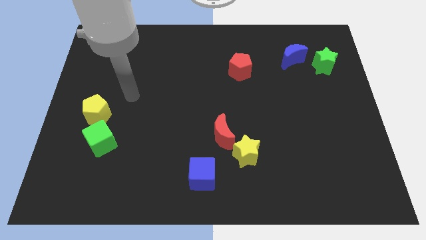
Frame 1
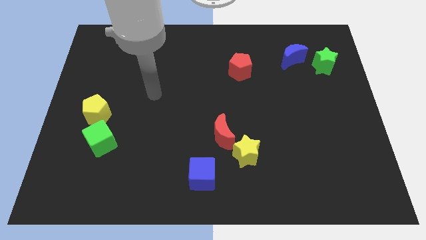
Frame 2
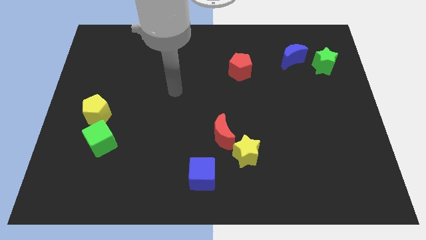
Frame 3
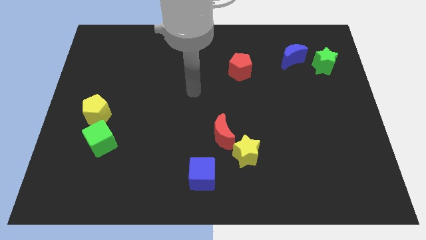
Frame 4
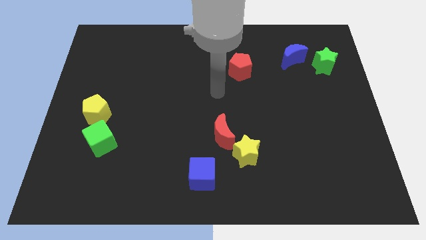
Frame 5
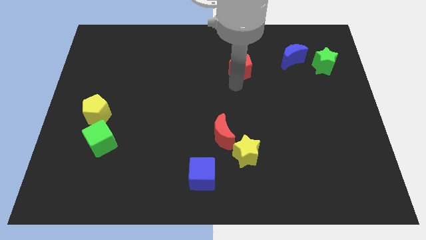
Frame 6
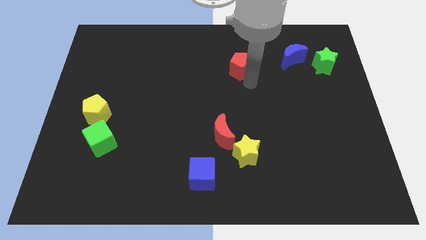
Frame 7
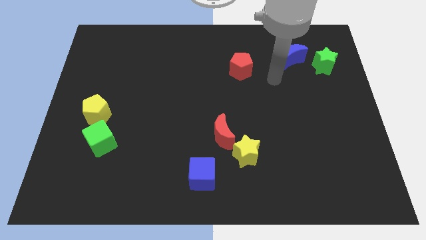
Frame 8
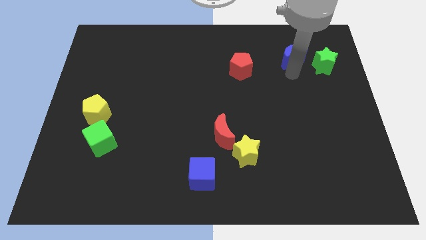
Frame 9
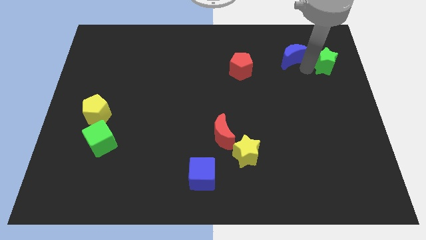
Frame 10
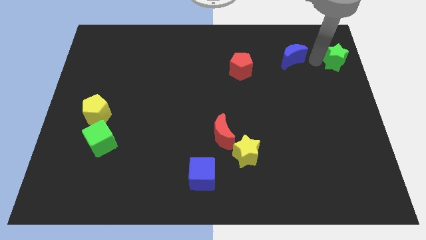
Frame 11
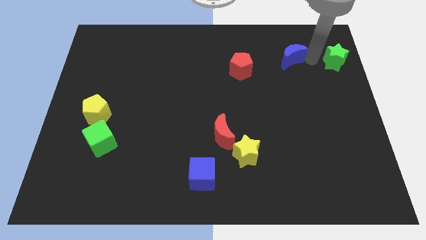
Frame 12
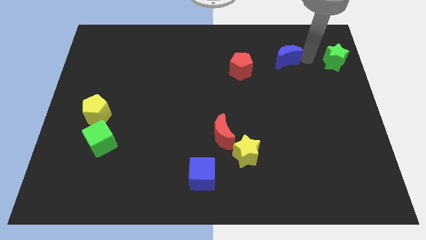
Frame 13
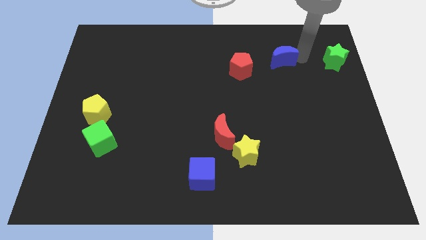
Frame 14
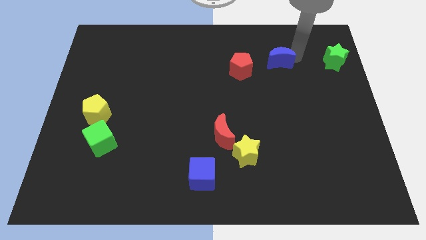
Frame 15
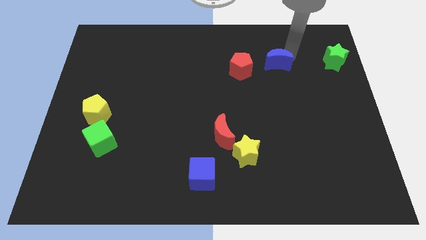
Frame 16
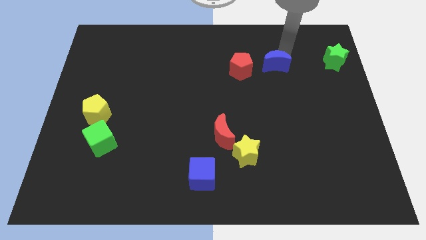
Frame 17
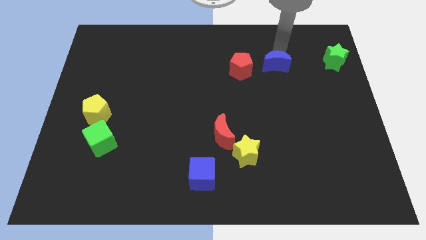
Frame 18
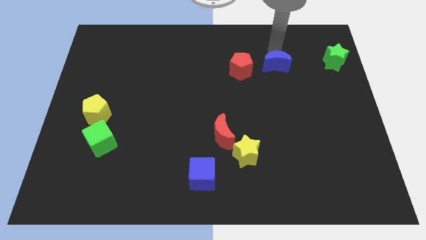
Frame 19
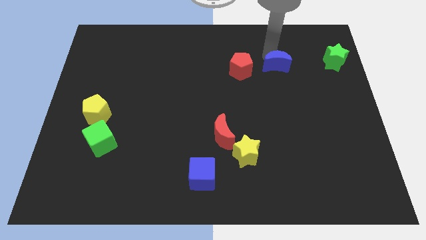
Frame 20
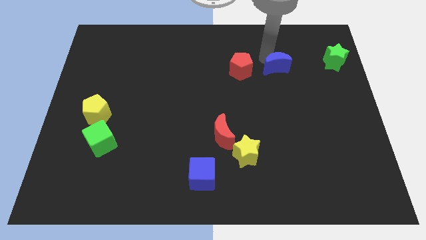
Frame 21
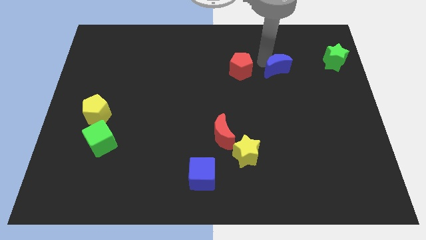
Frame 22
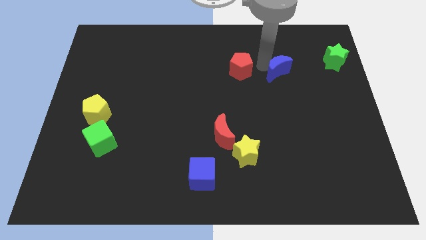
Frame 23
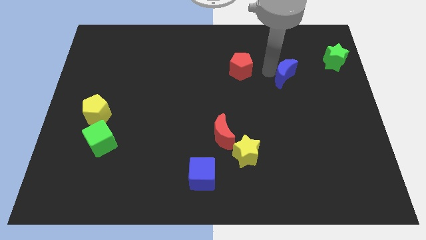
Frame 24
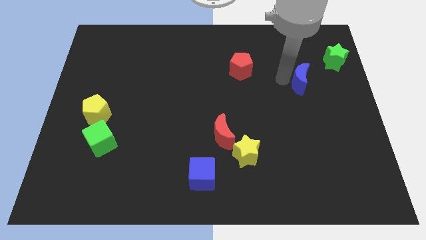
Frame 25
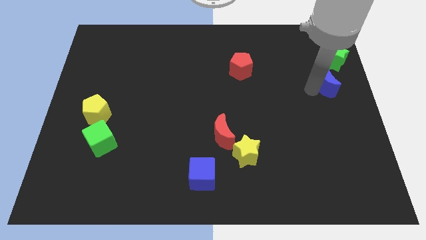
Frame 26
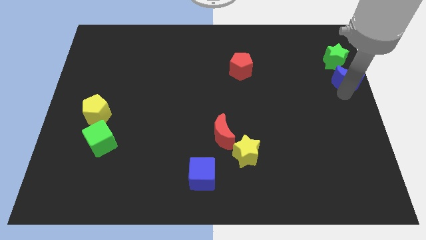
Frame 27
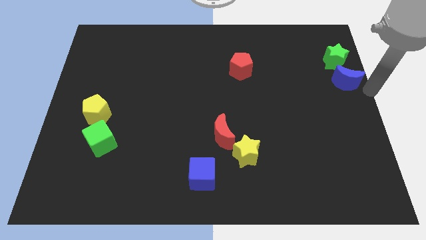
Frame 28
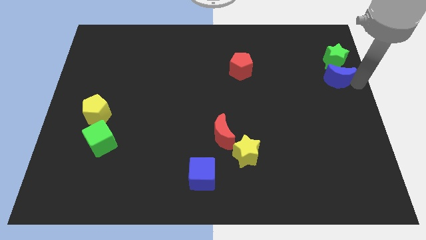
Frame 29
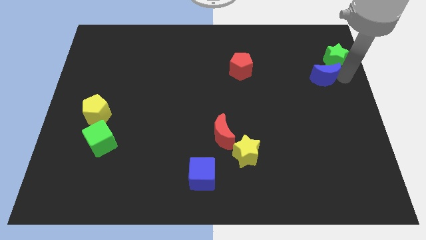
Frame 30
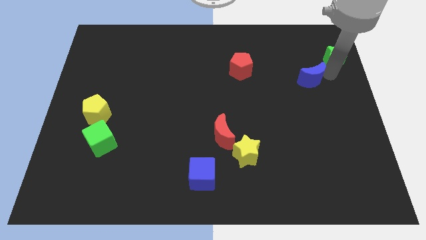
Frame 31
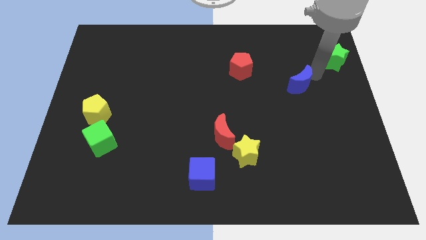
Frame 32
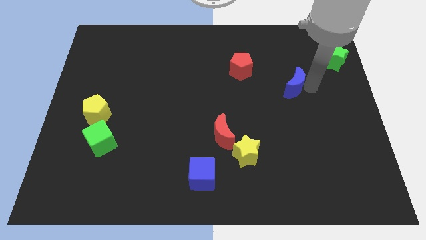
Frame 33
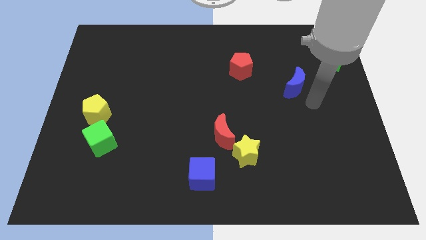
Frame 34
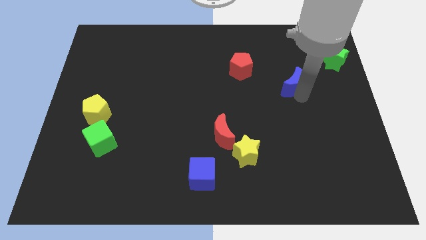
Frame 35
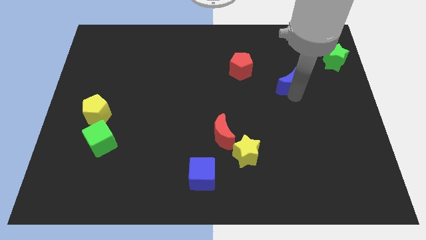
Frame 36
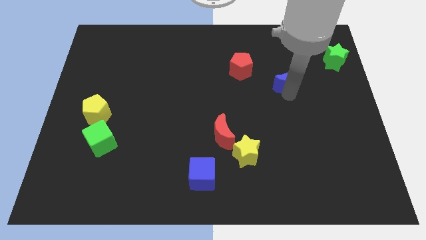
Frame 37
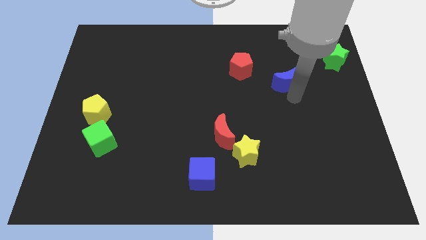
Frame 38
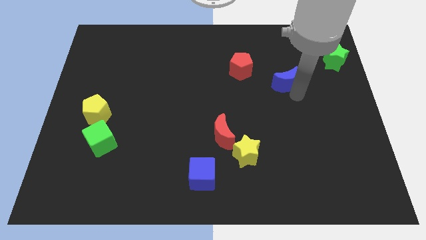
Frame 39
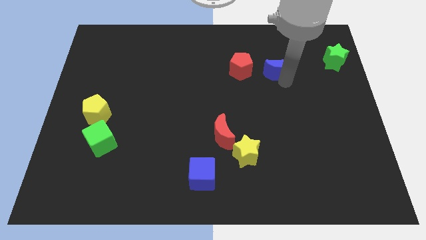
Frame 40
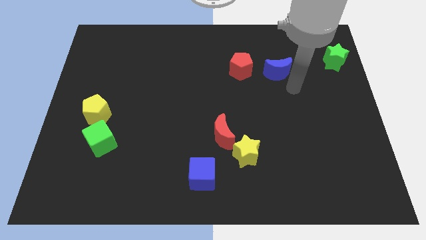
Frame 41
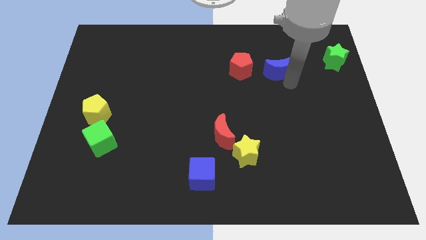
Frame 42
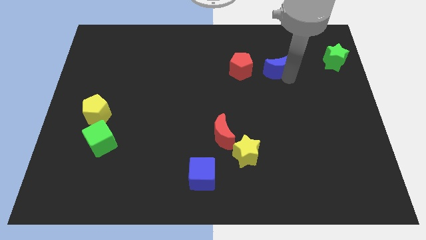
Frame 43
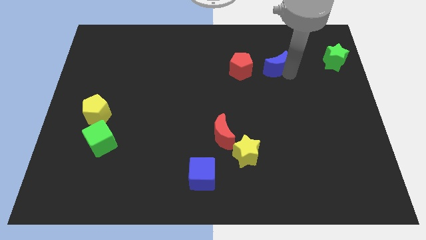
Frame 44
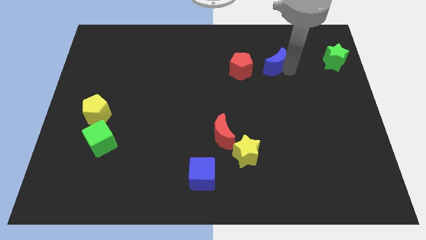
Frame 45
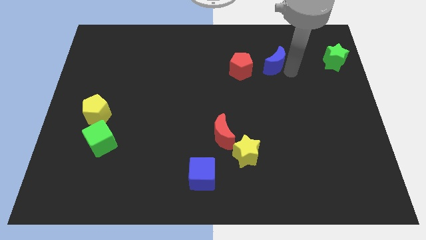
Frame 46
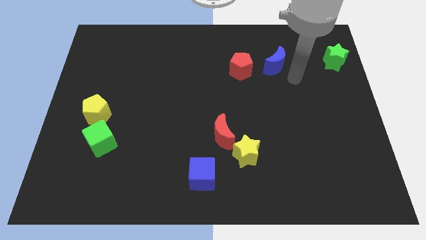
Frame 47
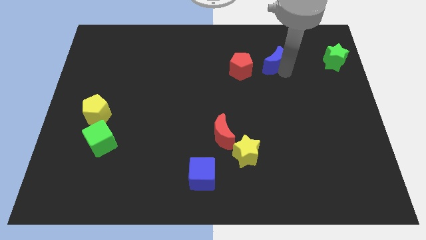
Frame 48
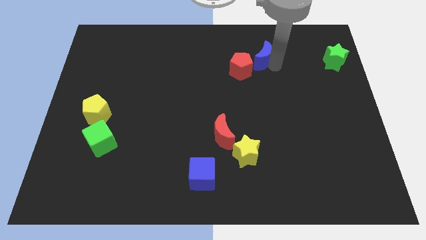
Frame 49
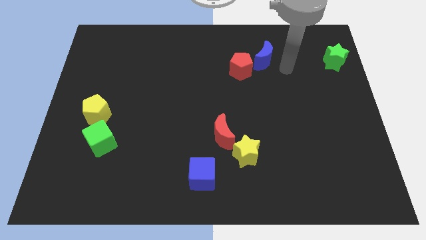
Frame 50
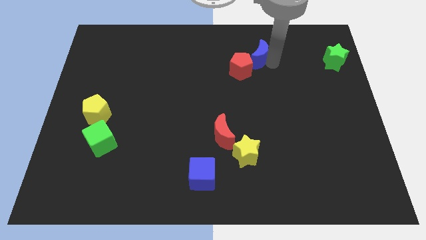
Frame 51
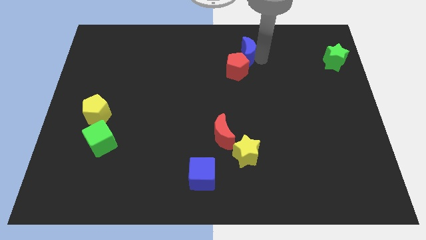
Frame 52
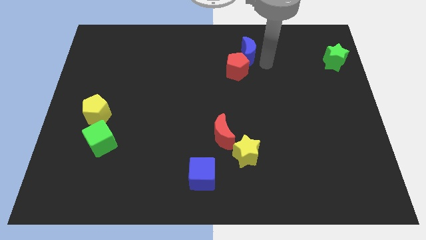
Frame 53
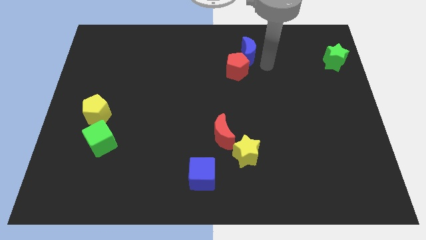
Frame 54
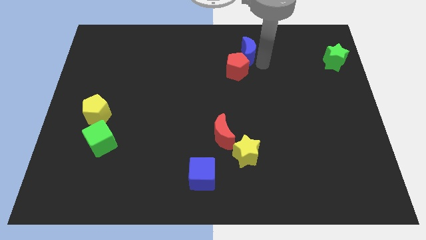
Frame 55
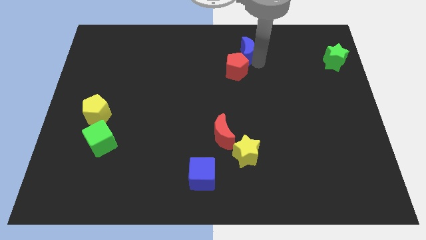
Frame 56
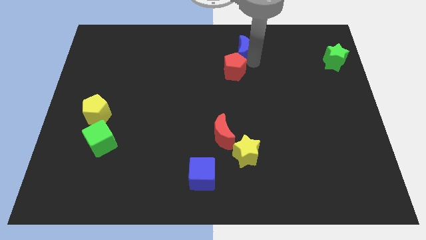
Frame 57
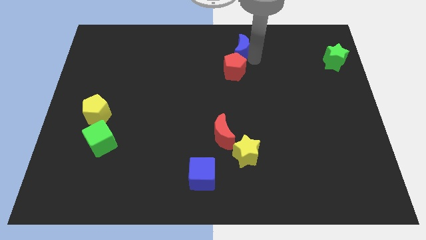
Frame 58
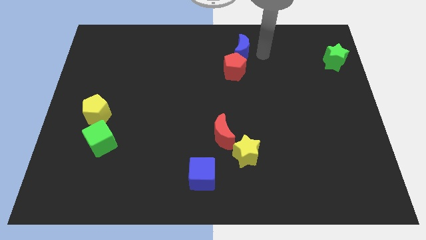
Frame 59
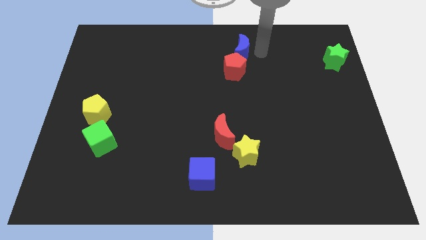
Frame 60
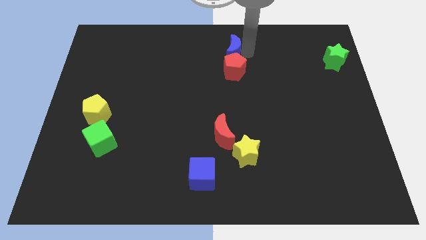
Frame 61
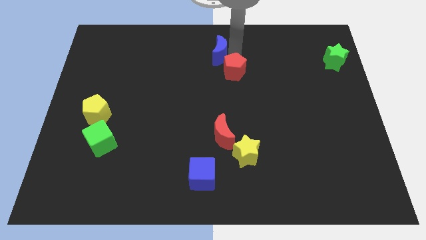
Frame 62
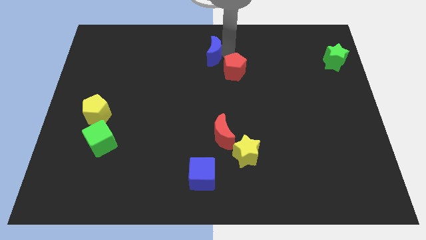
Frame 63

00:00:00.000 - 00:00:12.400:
push the blue moon left

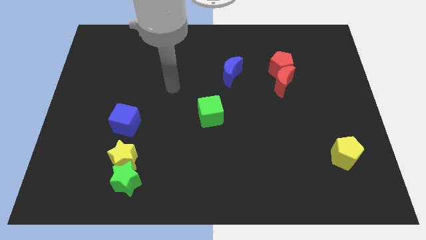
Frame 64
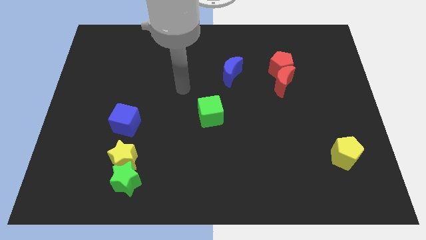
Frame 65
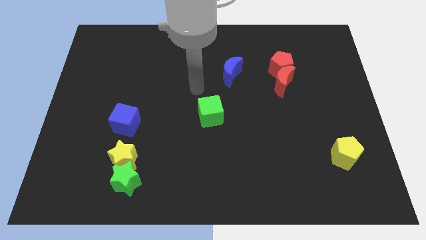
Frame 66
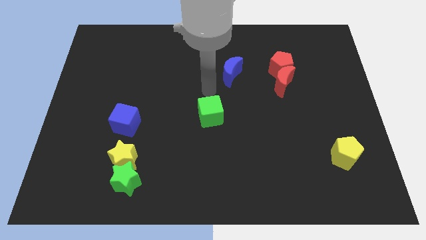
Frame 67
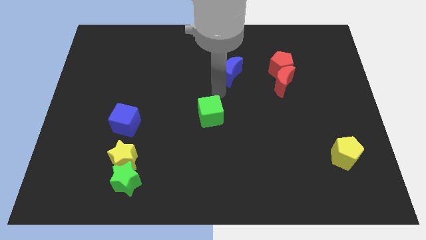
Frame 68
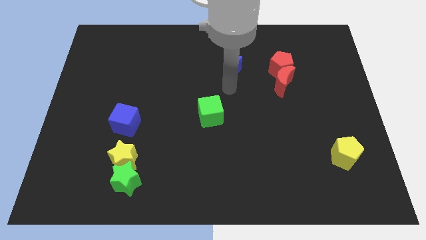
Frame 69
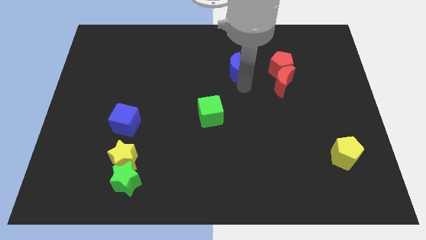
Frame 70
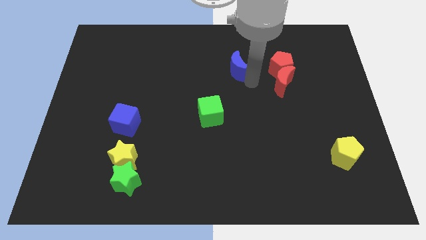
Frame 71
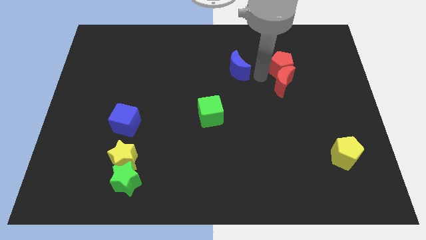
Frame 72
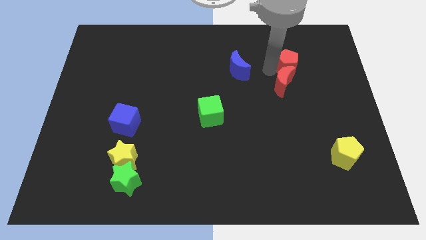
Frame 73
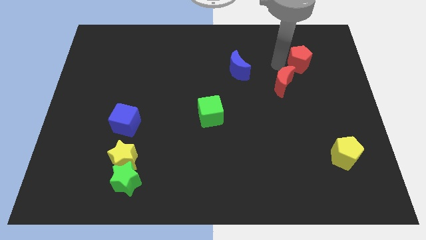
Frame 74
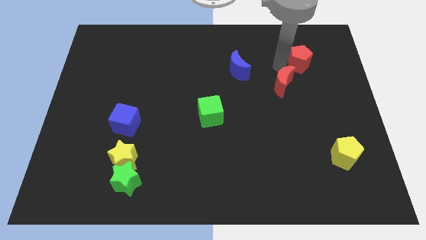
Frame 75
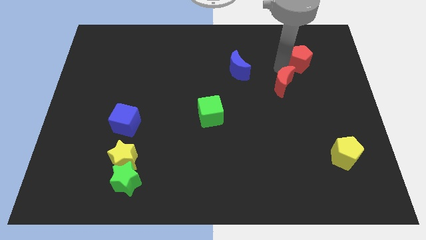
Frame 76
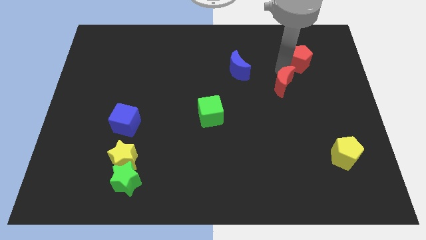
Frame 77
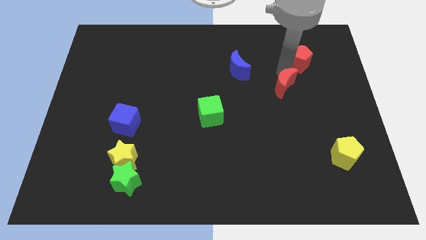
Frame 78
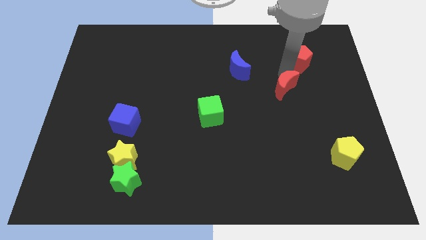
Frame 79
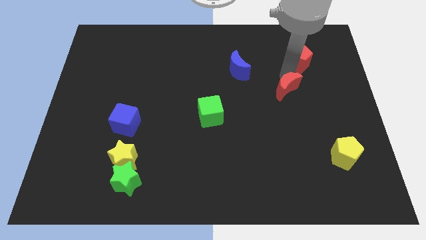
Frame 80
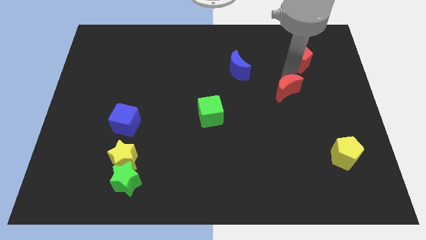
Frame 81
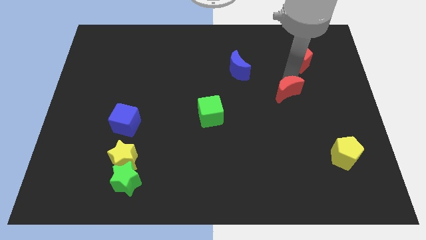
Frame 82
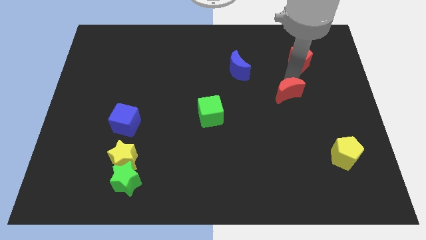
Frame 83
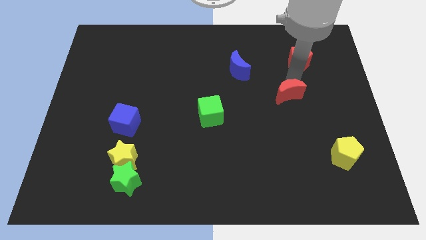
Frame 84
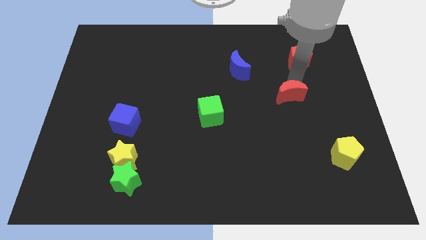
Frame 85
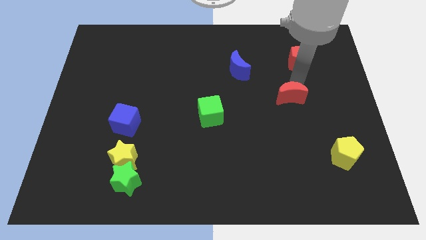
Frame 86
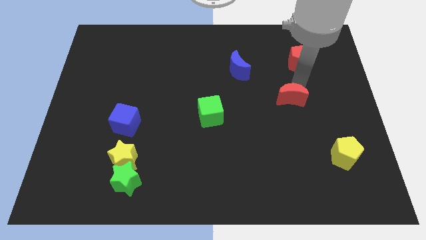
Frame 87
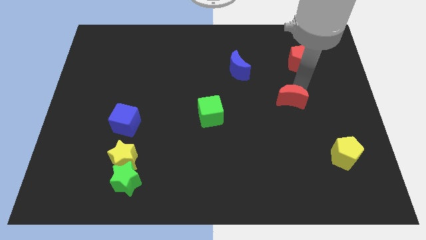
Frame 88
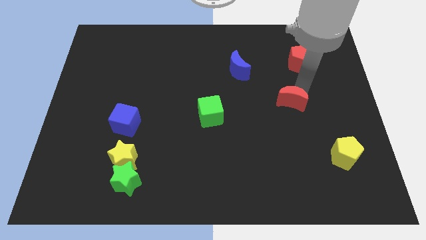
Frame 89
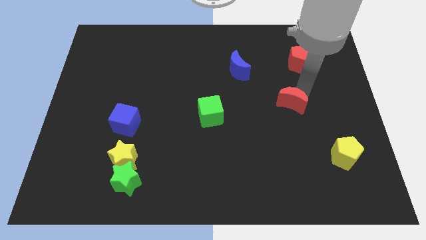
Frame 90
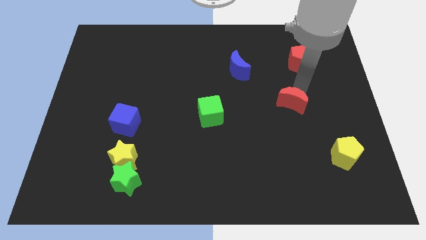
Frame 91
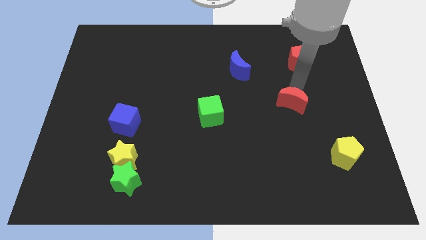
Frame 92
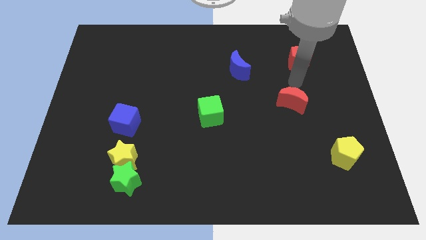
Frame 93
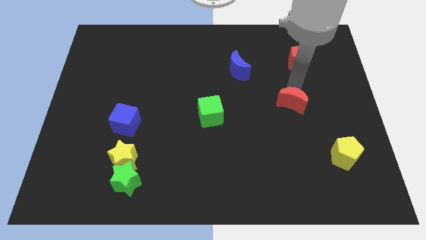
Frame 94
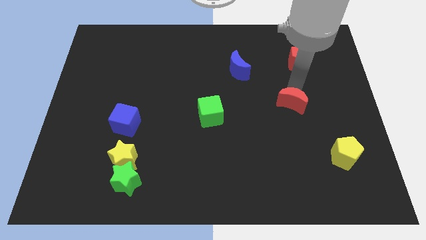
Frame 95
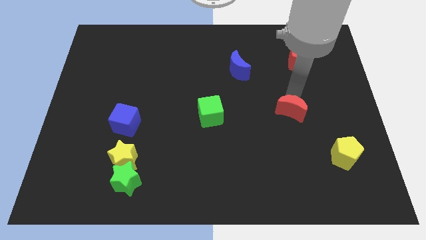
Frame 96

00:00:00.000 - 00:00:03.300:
push the red moon down a little
